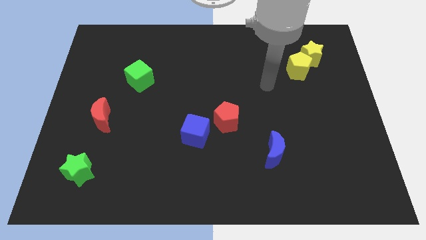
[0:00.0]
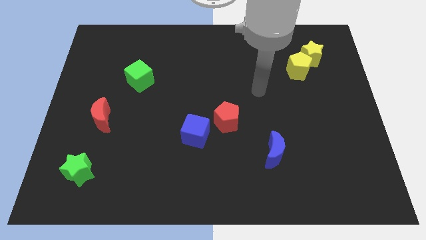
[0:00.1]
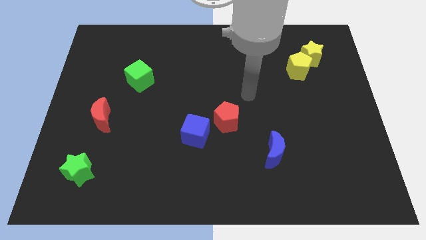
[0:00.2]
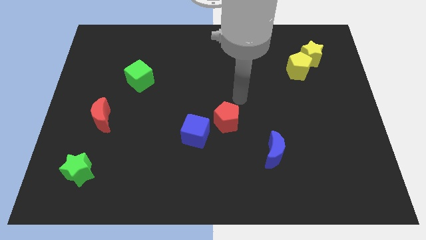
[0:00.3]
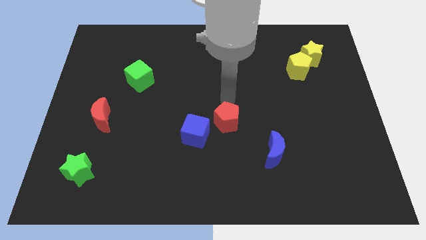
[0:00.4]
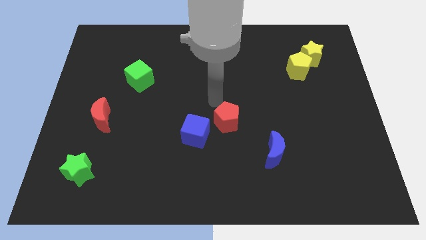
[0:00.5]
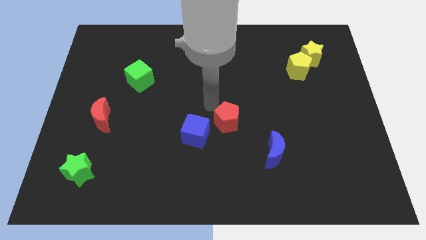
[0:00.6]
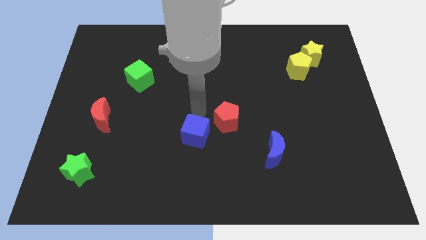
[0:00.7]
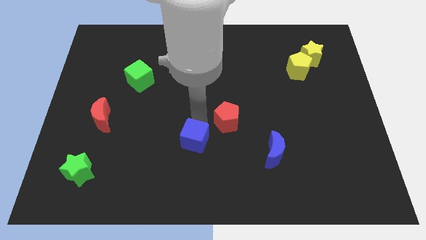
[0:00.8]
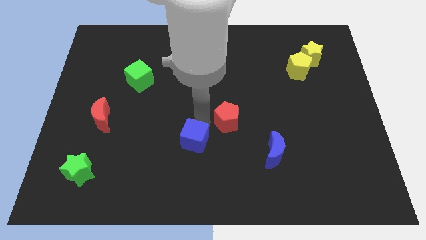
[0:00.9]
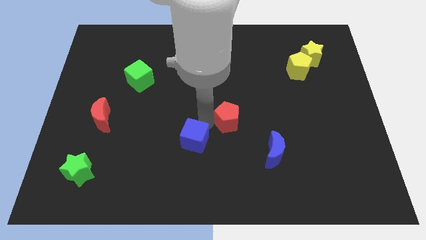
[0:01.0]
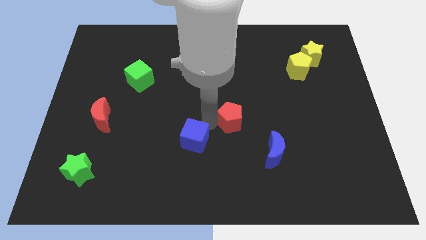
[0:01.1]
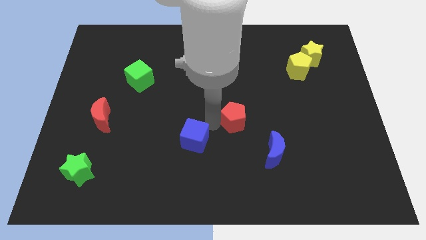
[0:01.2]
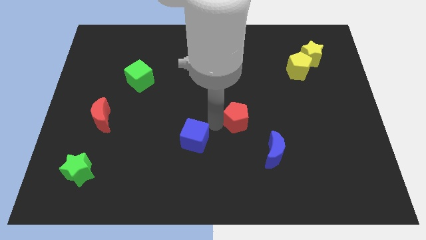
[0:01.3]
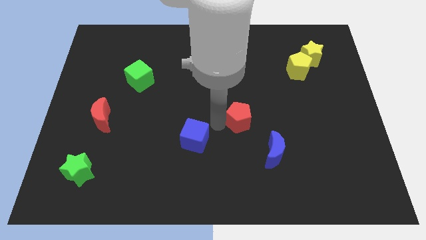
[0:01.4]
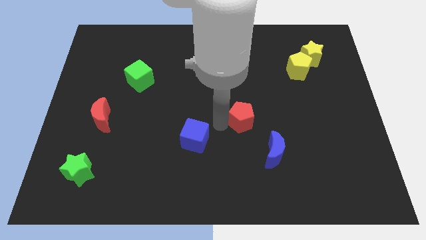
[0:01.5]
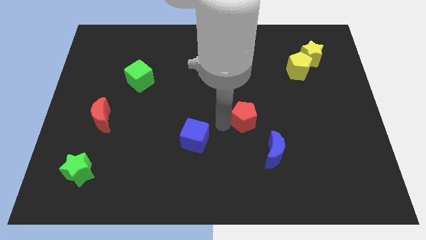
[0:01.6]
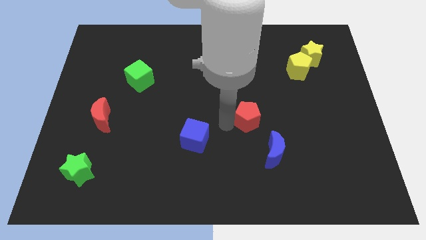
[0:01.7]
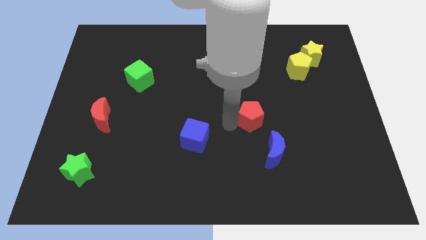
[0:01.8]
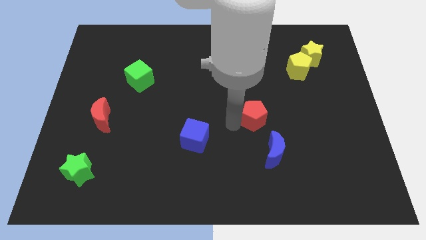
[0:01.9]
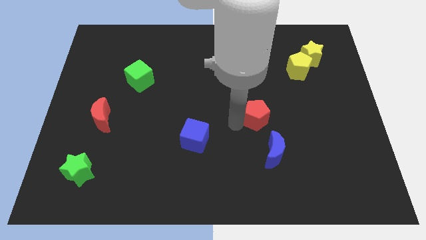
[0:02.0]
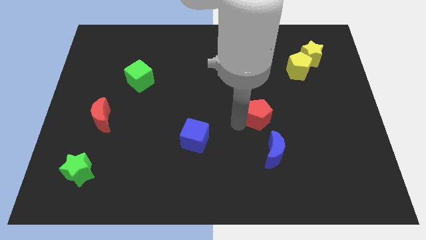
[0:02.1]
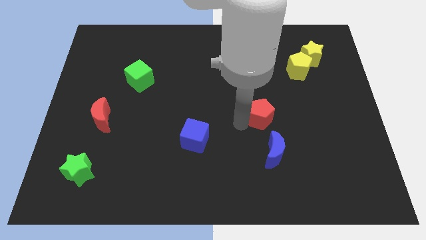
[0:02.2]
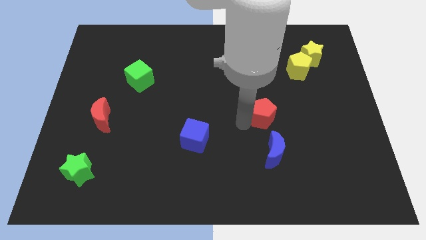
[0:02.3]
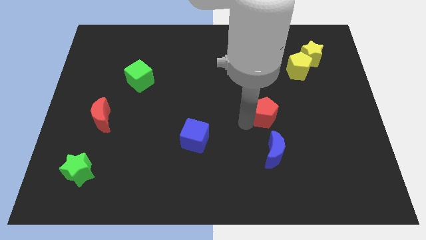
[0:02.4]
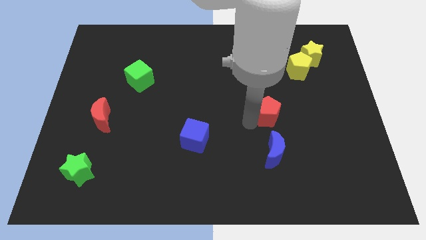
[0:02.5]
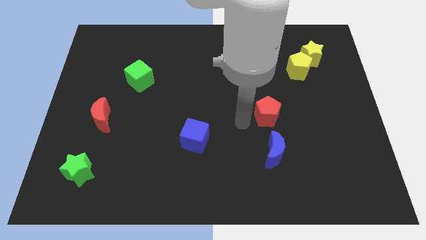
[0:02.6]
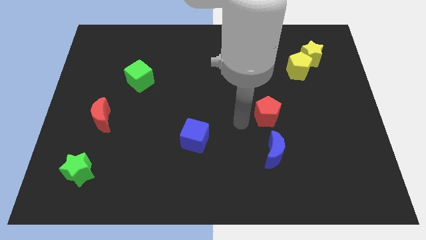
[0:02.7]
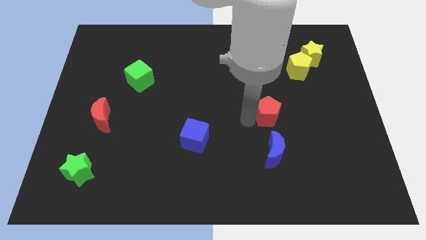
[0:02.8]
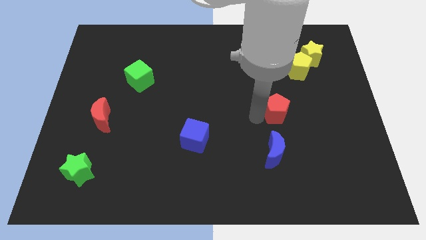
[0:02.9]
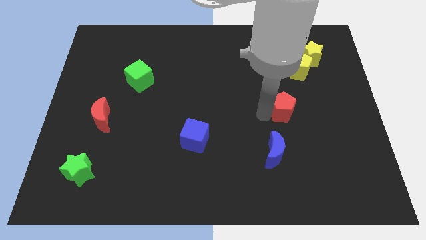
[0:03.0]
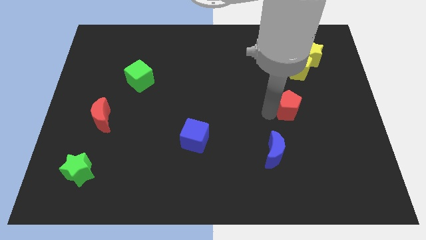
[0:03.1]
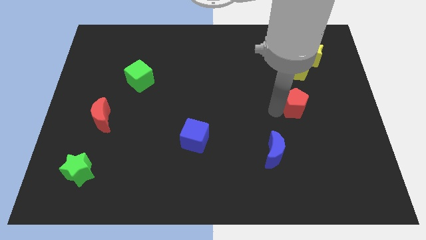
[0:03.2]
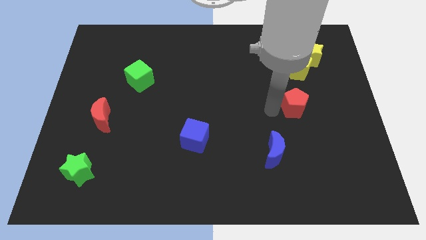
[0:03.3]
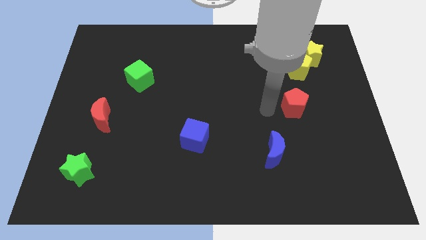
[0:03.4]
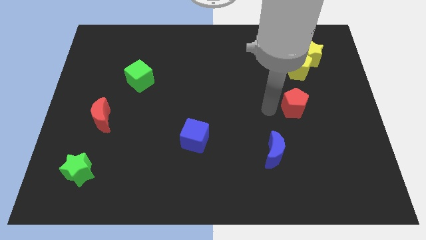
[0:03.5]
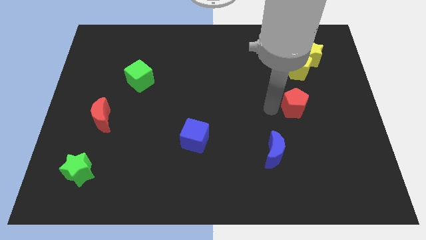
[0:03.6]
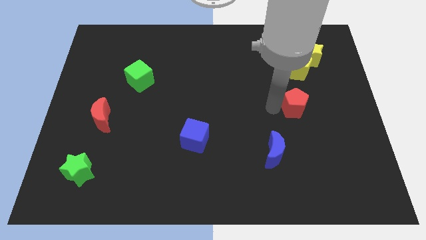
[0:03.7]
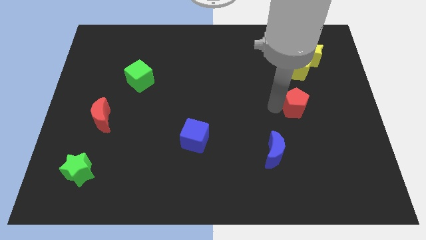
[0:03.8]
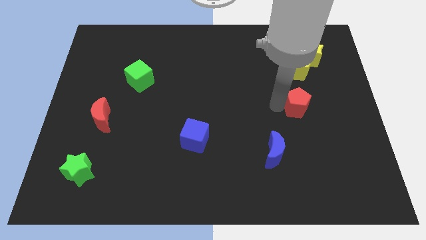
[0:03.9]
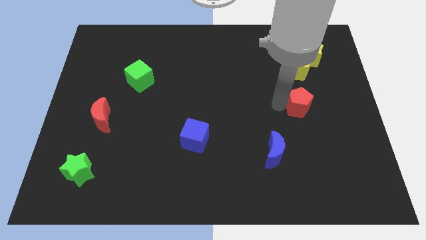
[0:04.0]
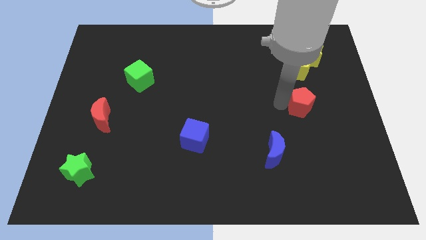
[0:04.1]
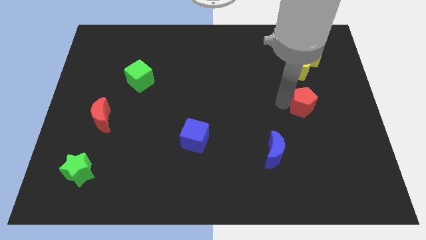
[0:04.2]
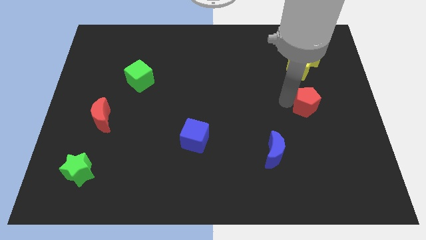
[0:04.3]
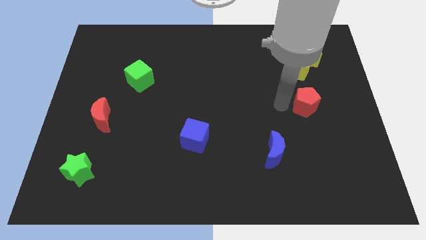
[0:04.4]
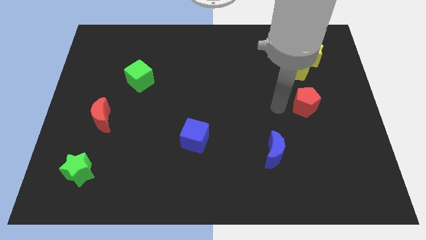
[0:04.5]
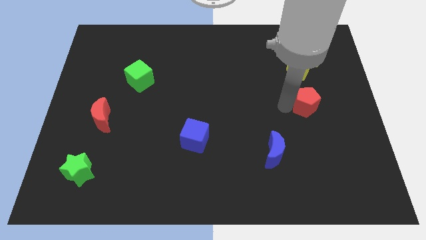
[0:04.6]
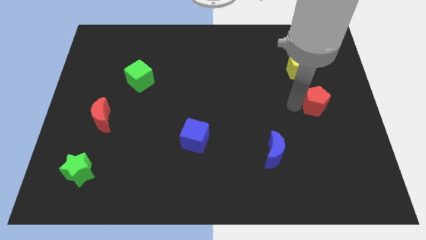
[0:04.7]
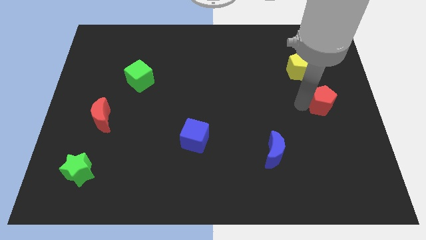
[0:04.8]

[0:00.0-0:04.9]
move the red pentagon to the right side

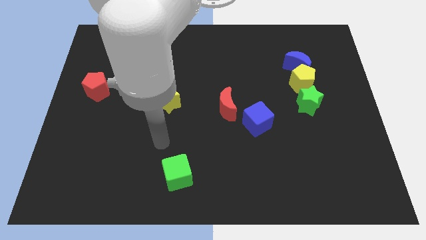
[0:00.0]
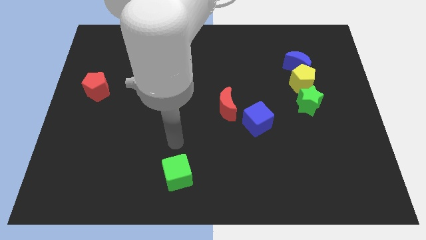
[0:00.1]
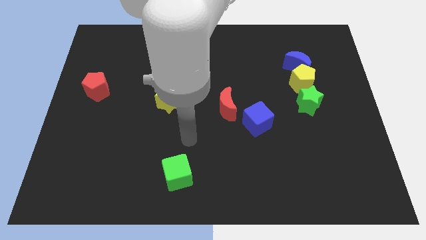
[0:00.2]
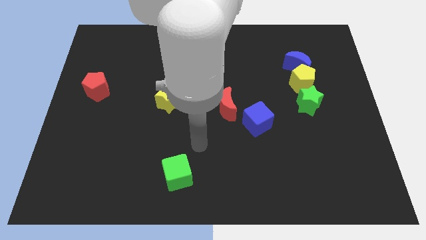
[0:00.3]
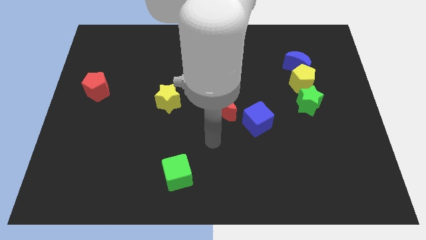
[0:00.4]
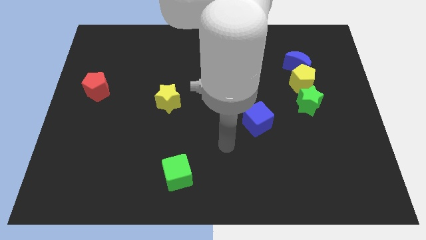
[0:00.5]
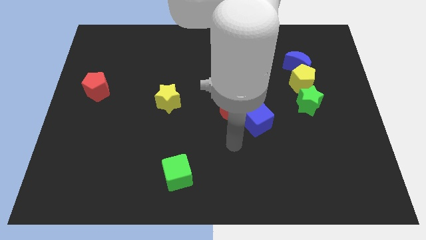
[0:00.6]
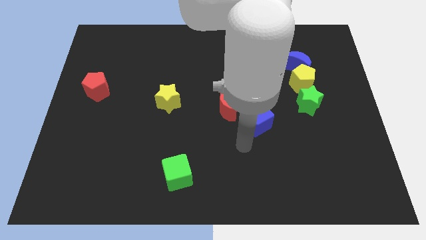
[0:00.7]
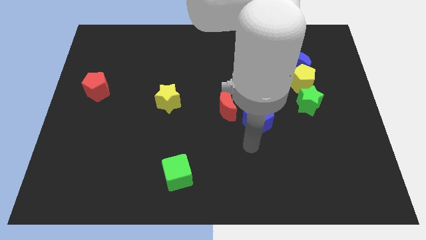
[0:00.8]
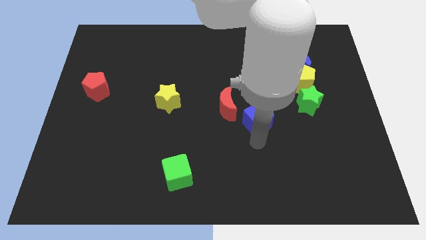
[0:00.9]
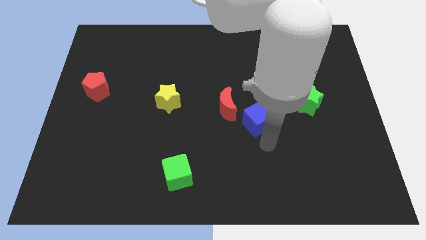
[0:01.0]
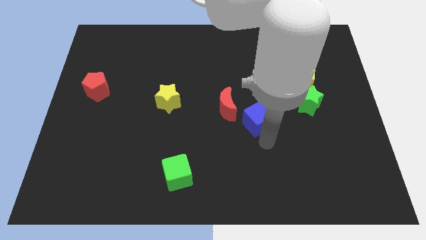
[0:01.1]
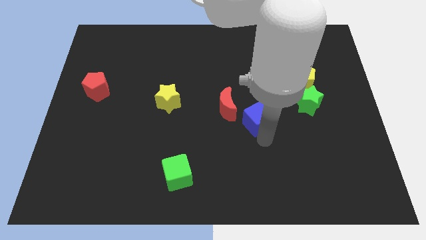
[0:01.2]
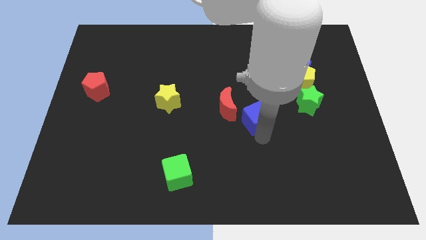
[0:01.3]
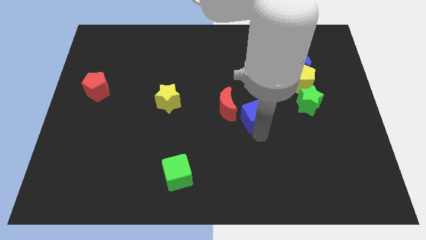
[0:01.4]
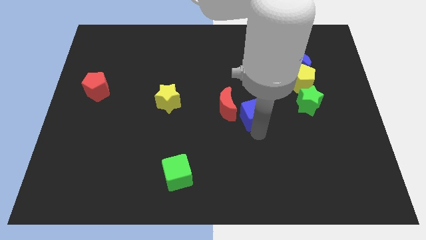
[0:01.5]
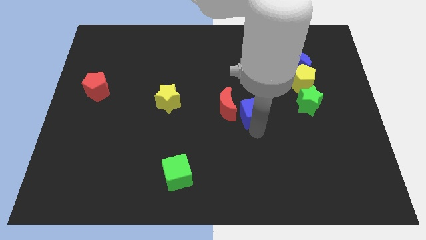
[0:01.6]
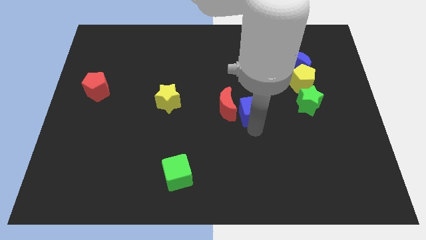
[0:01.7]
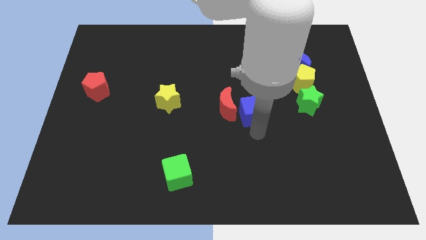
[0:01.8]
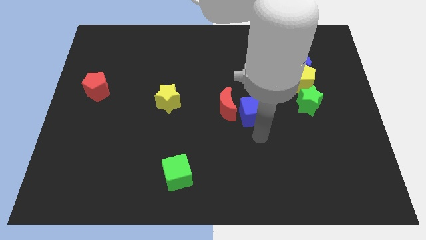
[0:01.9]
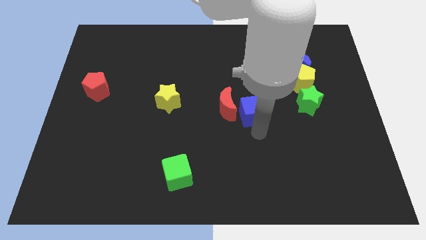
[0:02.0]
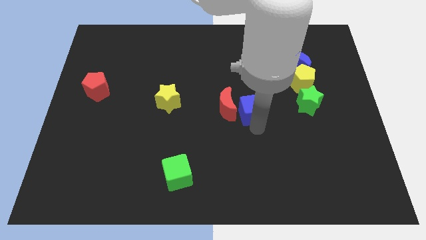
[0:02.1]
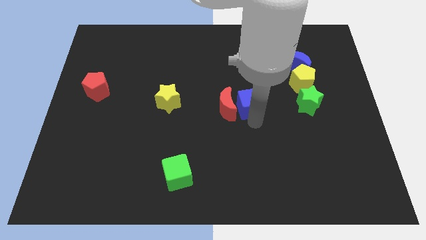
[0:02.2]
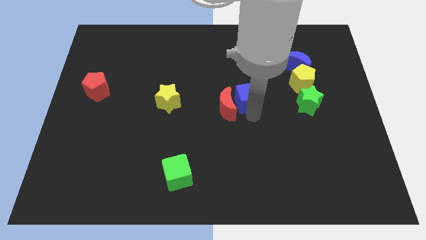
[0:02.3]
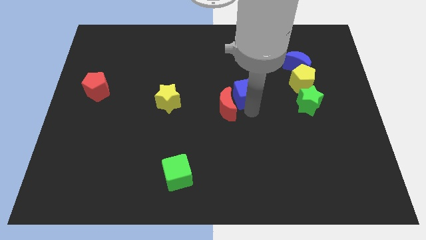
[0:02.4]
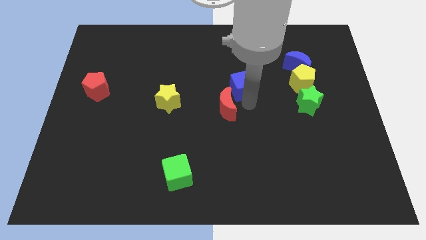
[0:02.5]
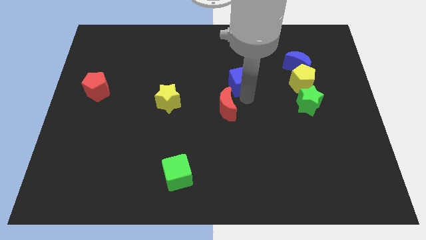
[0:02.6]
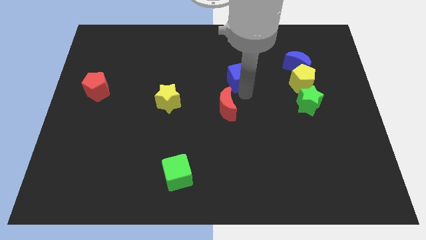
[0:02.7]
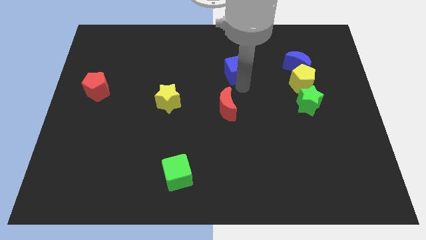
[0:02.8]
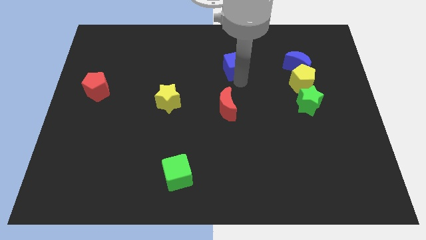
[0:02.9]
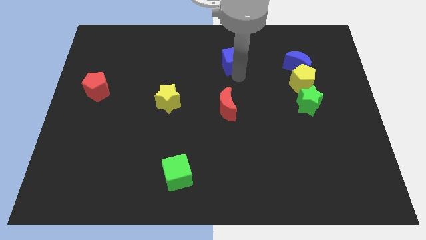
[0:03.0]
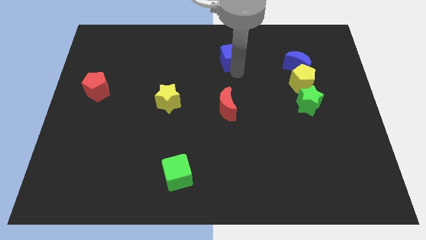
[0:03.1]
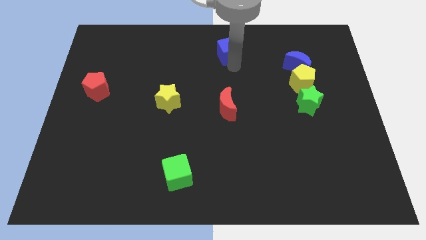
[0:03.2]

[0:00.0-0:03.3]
put the blue cube to the top side
